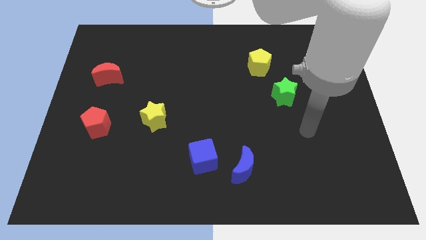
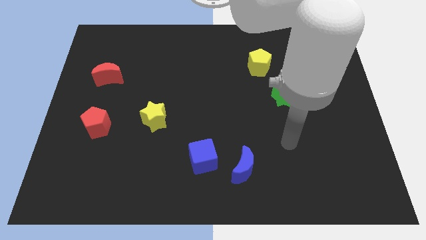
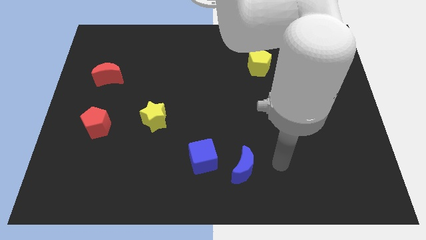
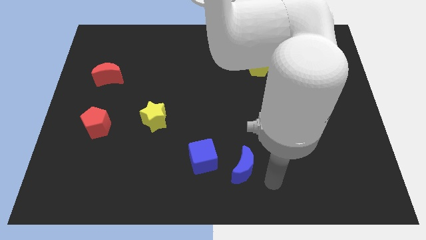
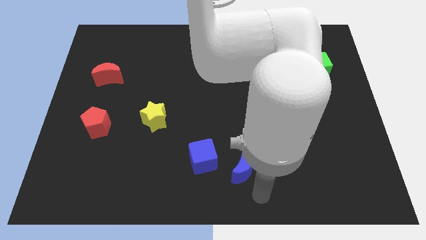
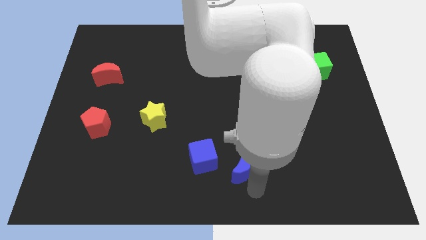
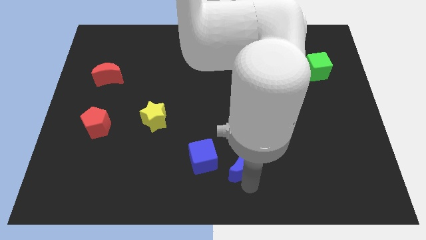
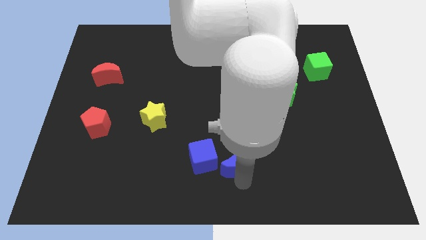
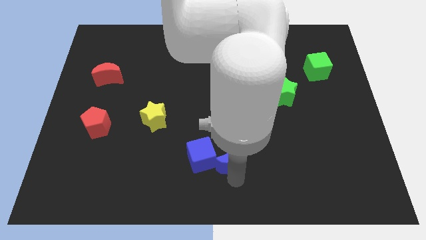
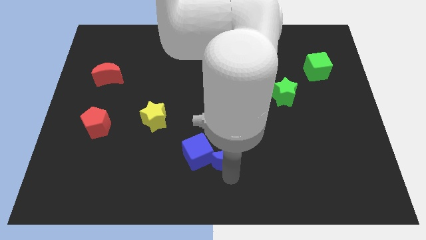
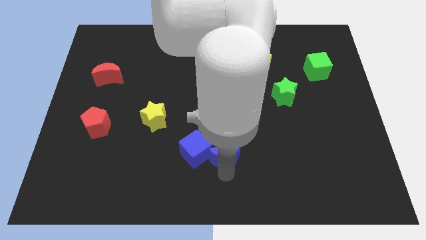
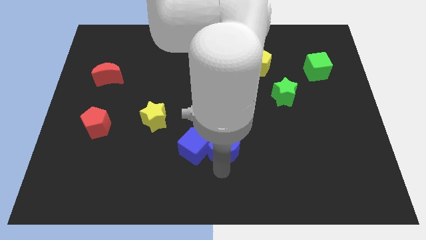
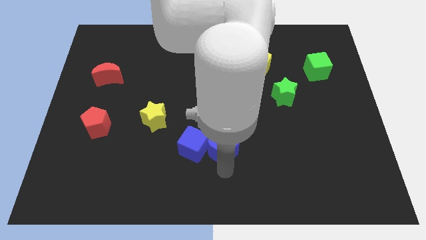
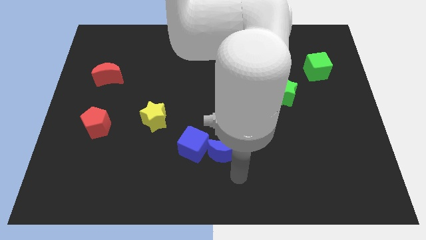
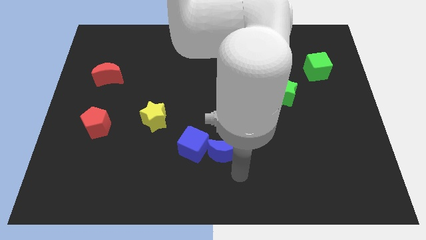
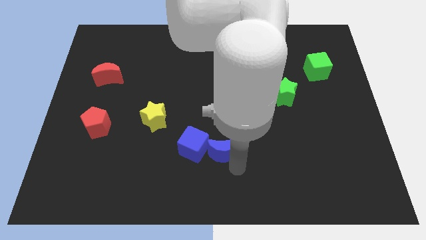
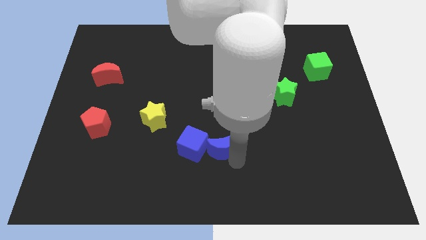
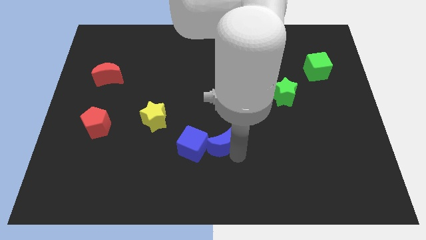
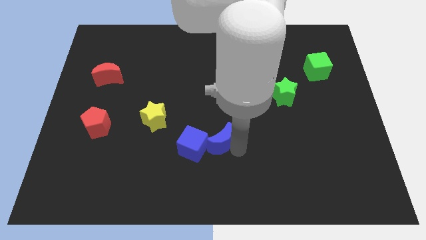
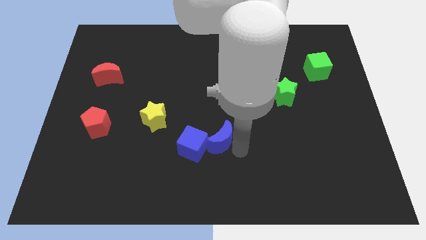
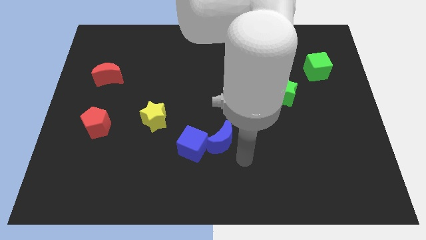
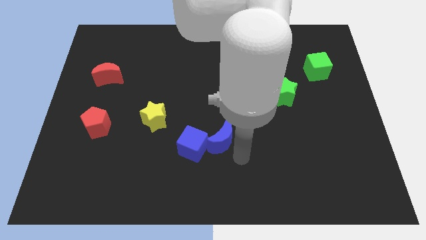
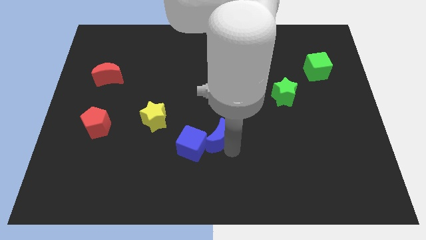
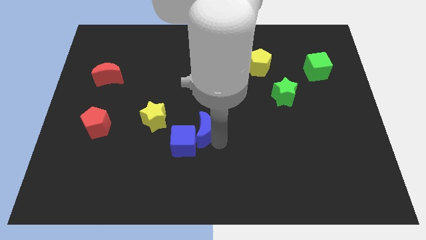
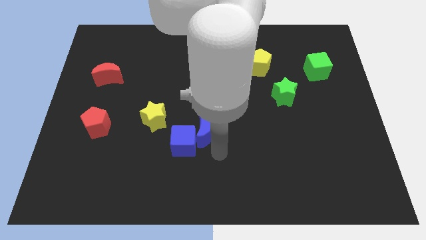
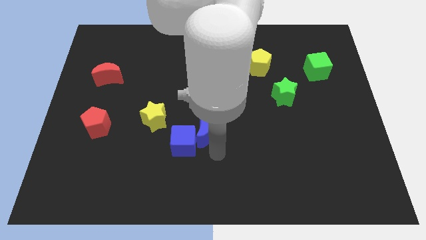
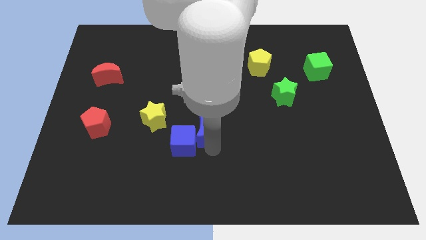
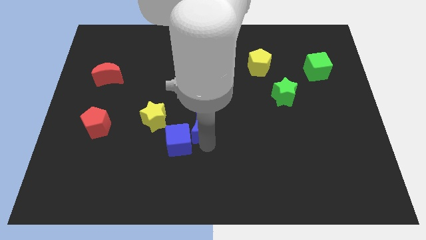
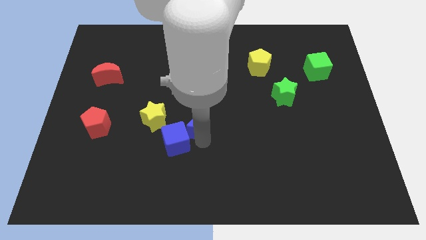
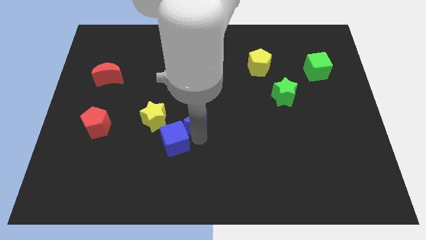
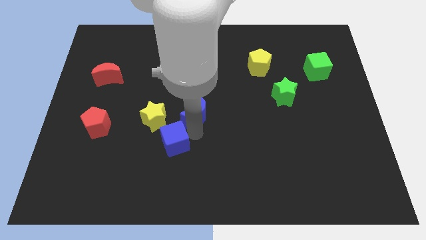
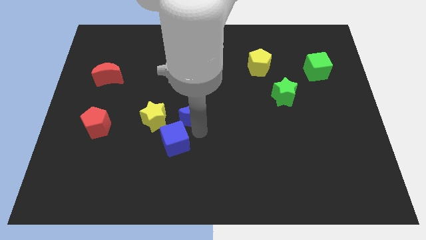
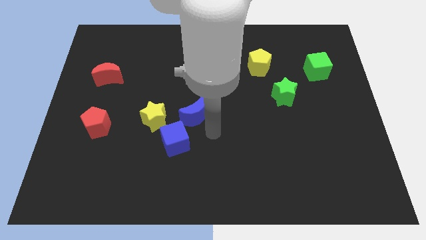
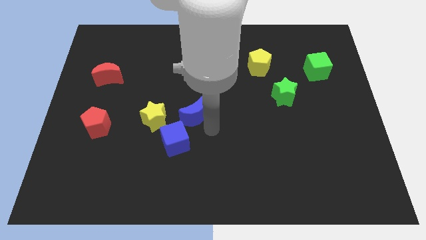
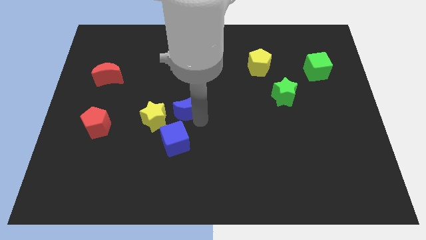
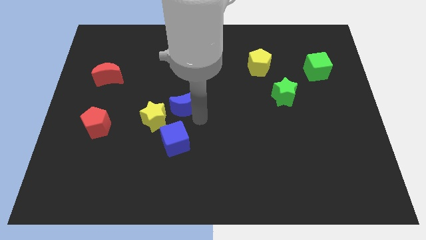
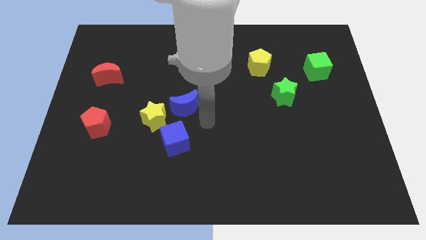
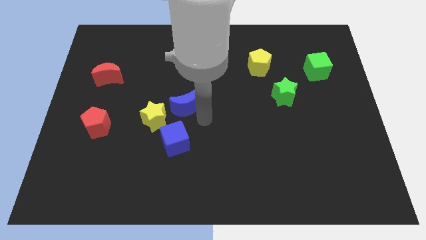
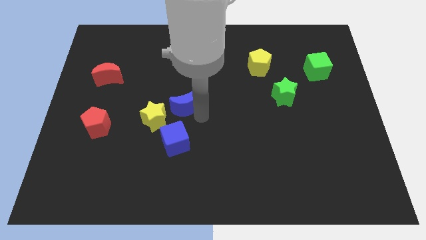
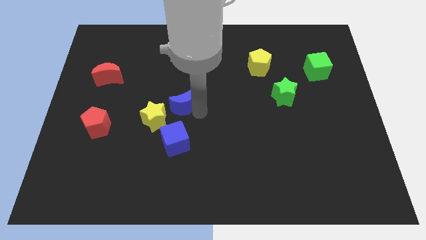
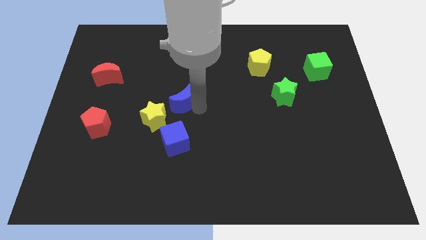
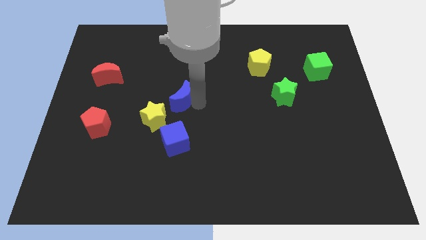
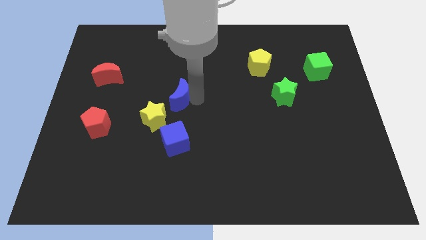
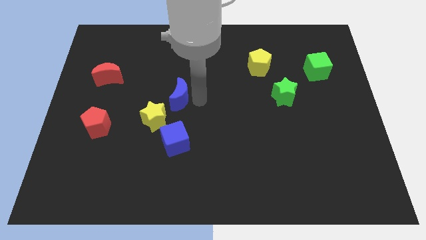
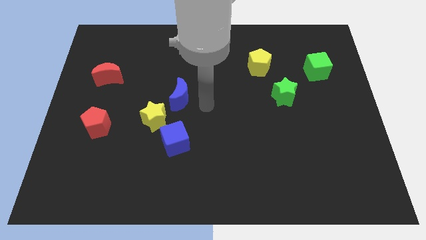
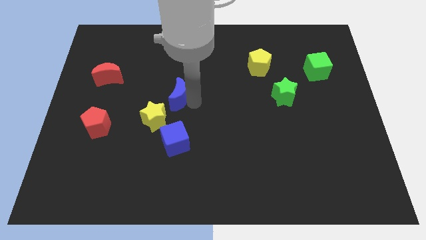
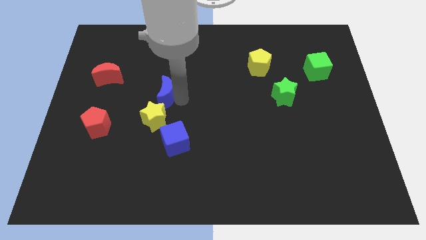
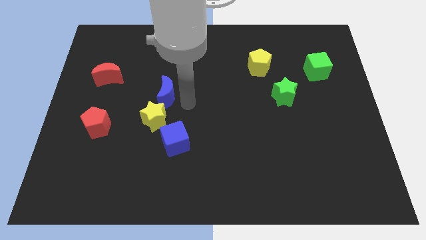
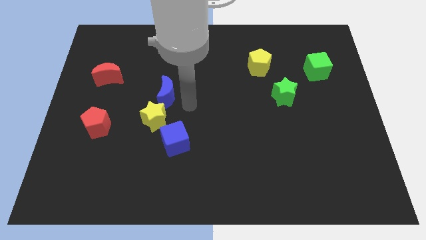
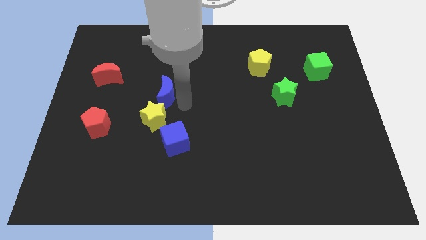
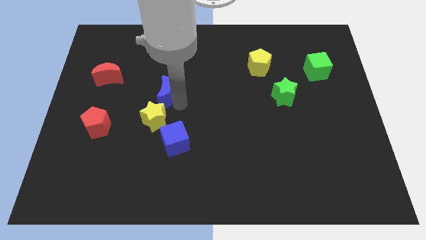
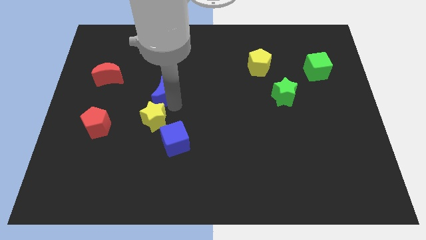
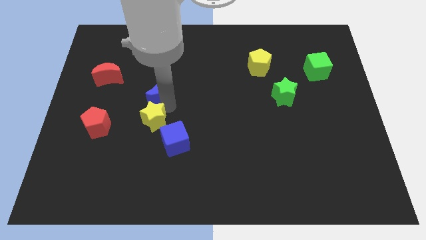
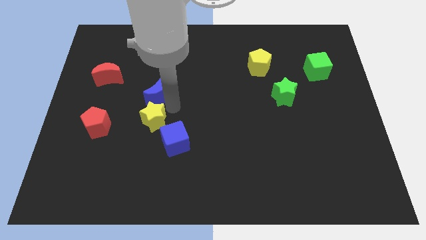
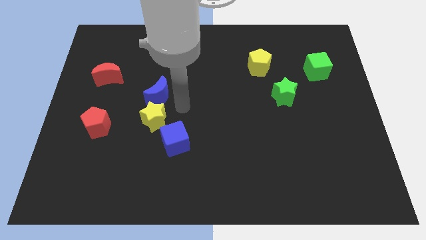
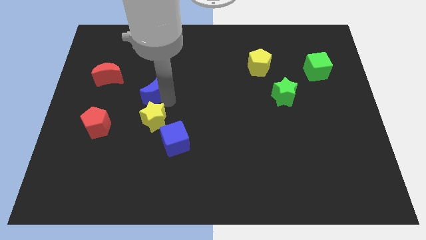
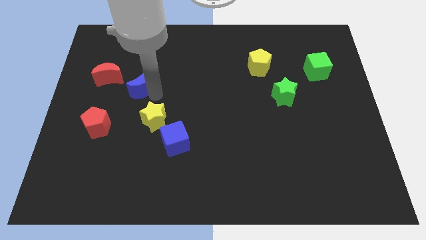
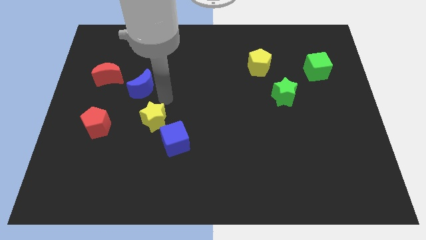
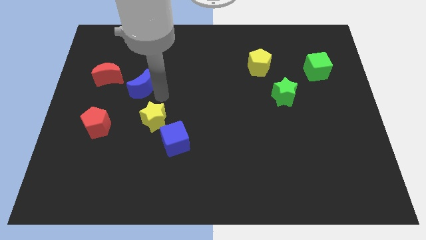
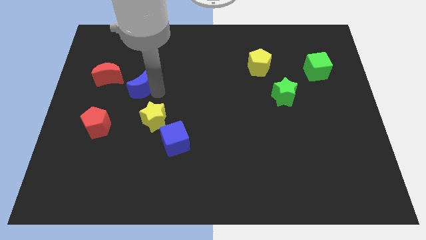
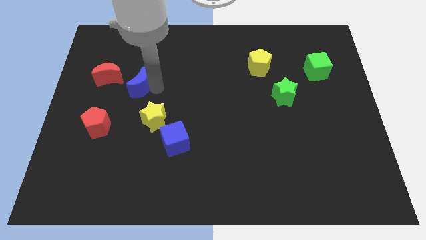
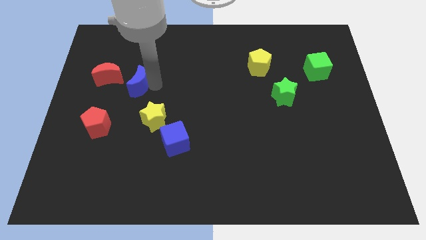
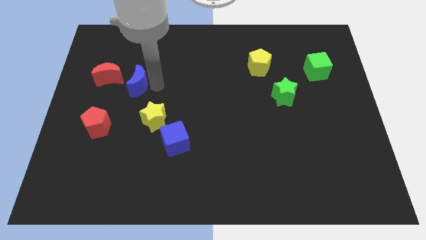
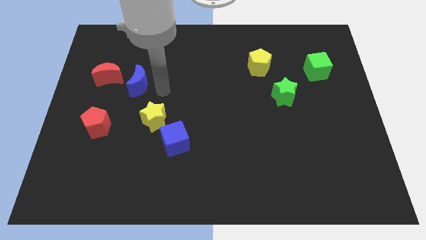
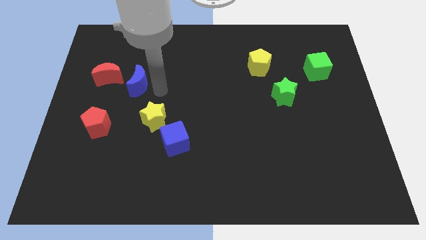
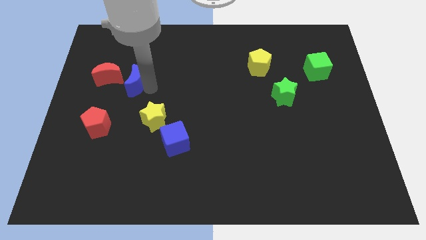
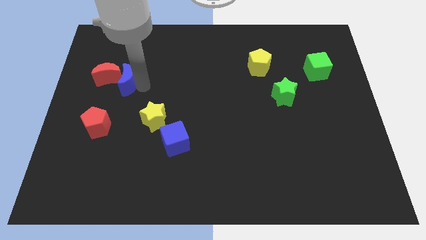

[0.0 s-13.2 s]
move the blue moon next to the red moon
